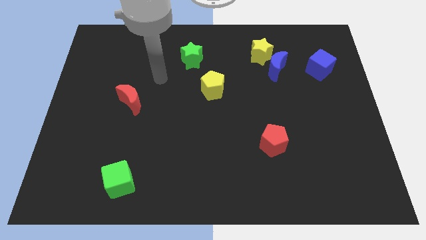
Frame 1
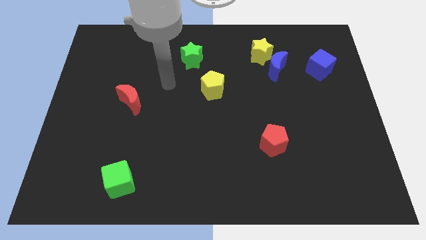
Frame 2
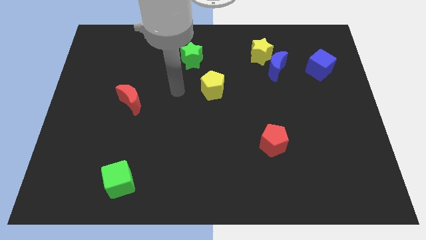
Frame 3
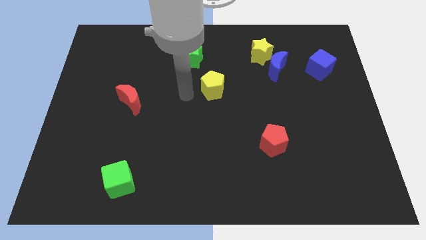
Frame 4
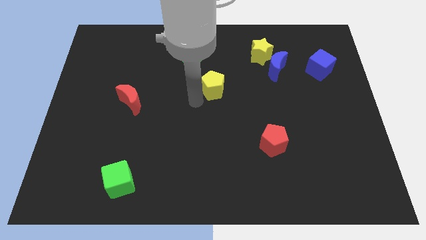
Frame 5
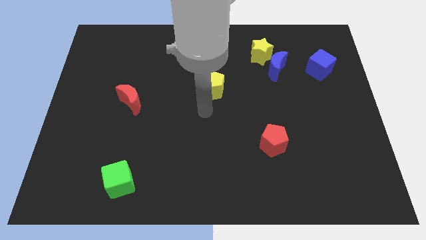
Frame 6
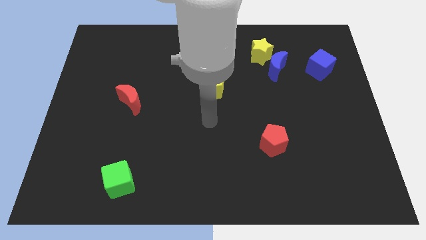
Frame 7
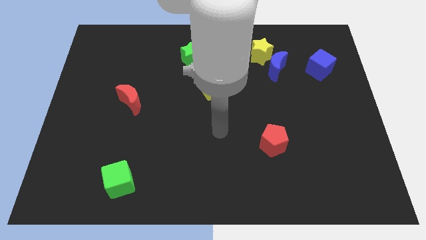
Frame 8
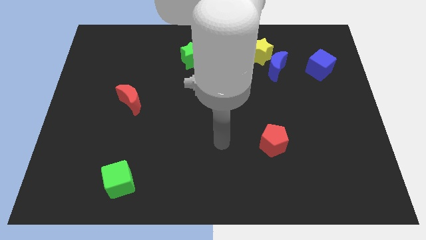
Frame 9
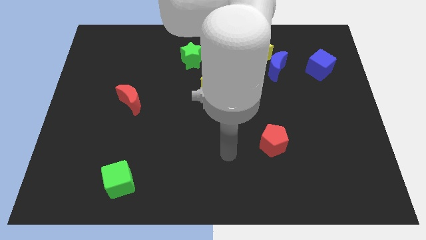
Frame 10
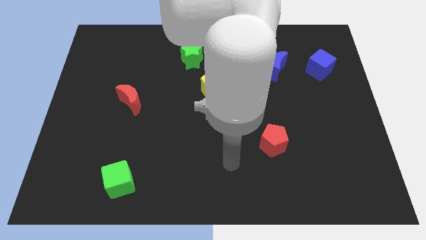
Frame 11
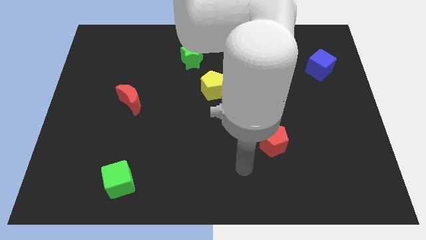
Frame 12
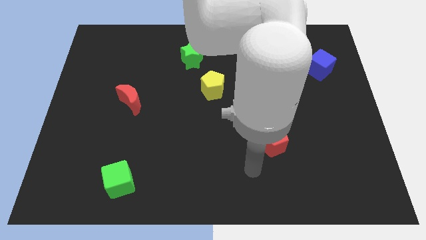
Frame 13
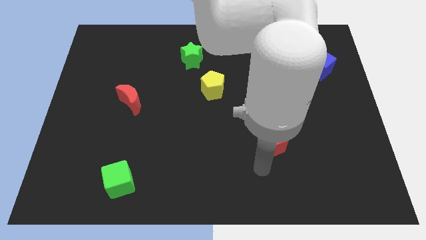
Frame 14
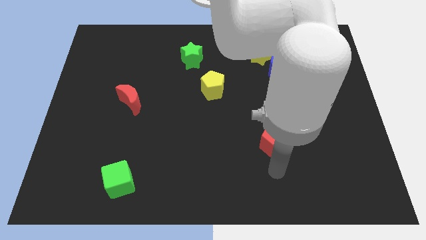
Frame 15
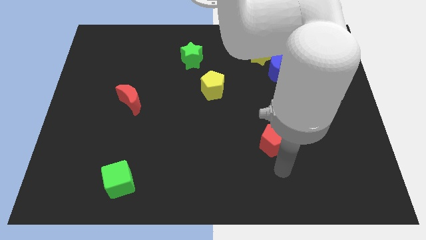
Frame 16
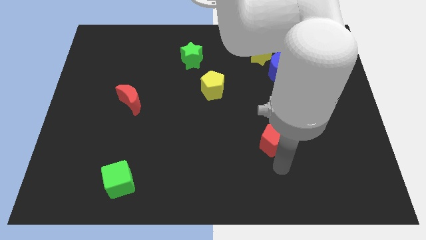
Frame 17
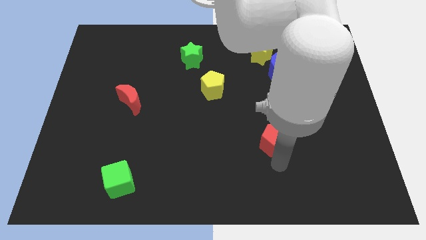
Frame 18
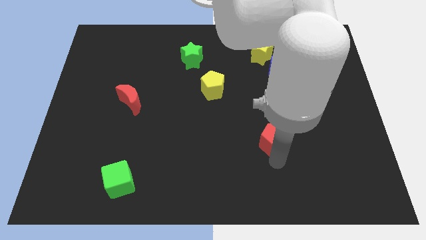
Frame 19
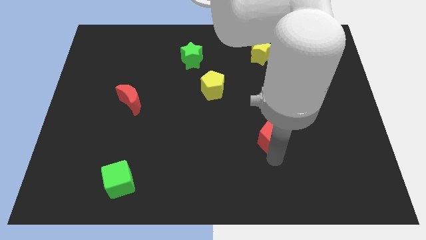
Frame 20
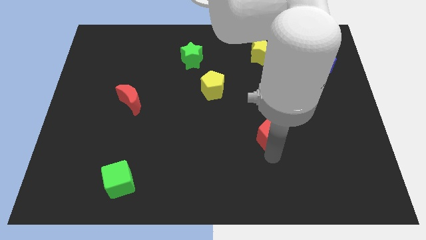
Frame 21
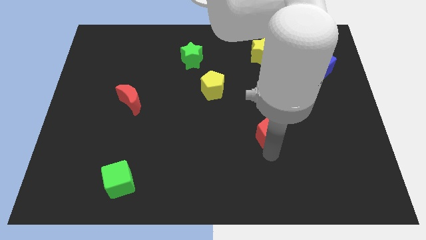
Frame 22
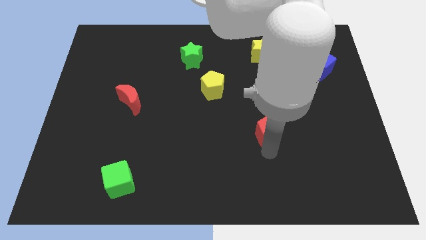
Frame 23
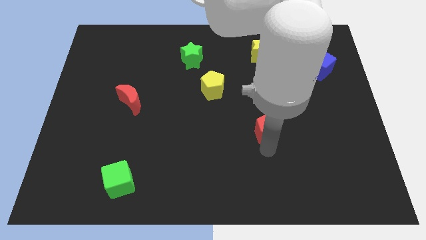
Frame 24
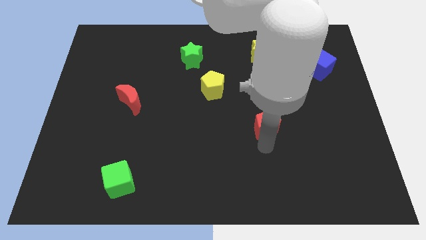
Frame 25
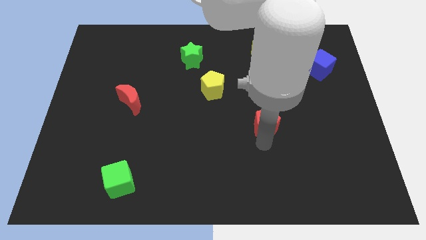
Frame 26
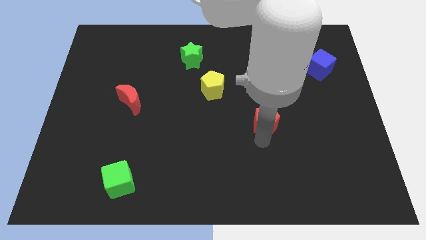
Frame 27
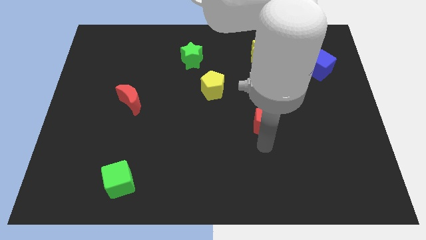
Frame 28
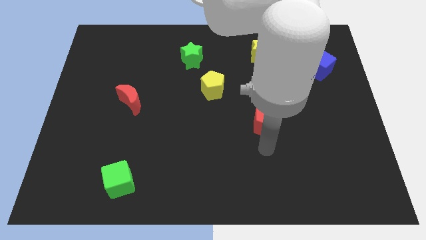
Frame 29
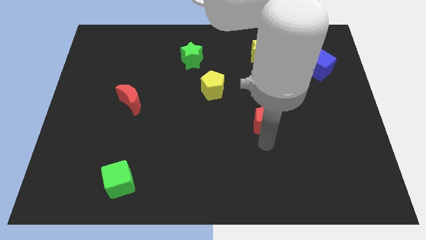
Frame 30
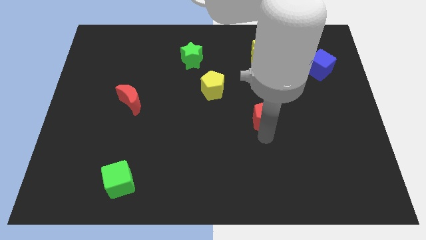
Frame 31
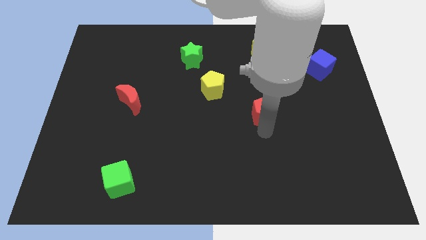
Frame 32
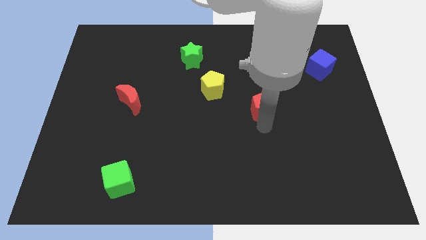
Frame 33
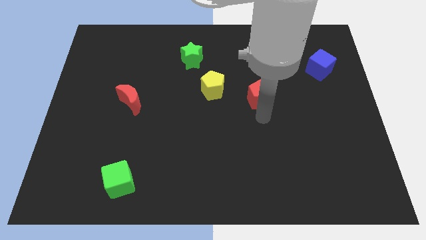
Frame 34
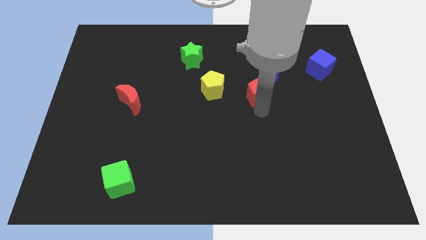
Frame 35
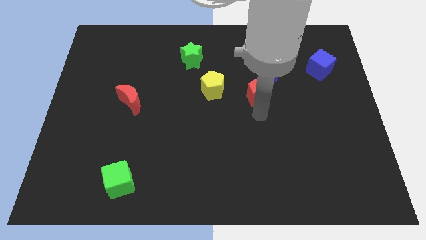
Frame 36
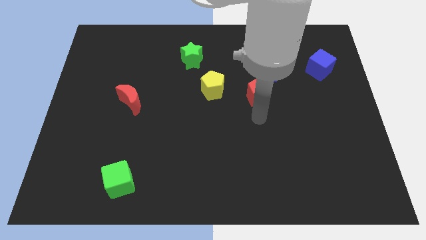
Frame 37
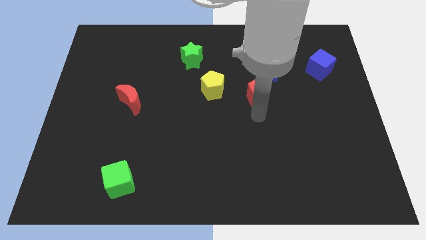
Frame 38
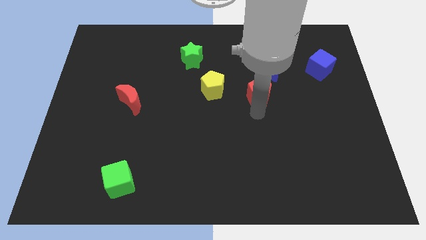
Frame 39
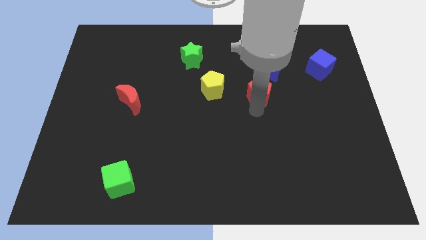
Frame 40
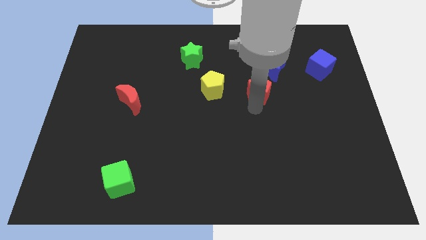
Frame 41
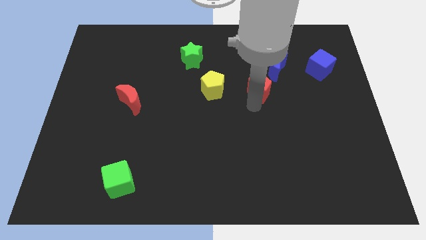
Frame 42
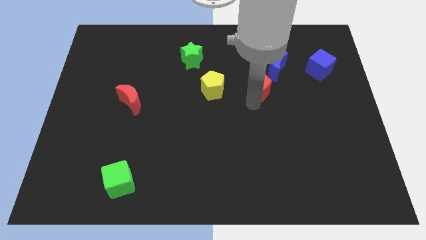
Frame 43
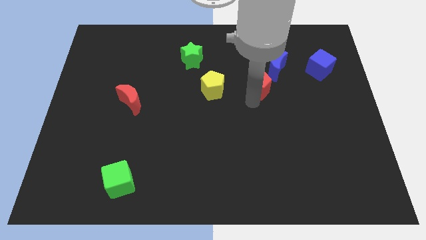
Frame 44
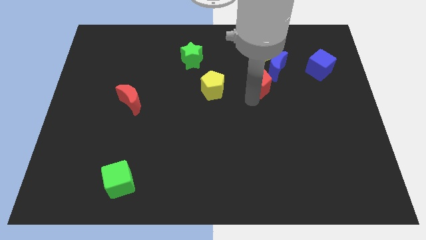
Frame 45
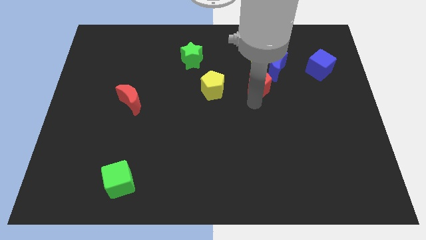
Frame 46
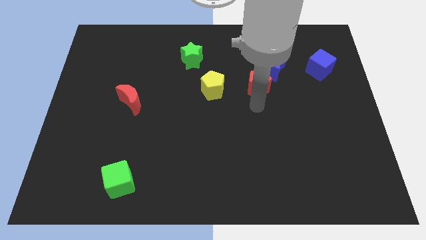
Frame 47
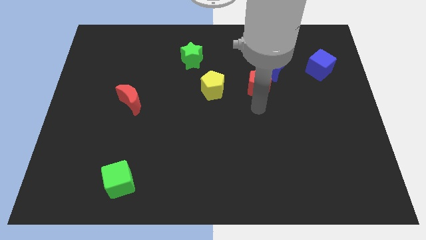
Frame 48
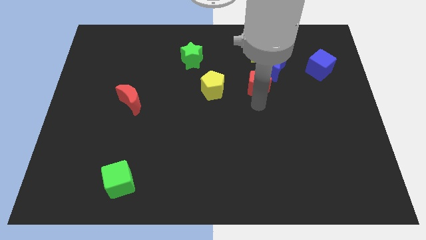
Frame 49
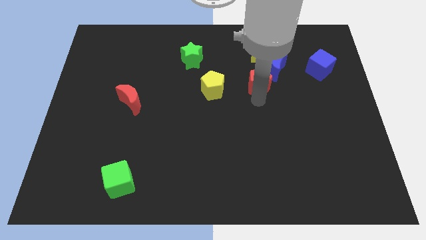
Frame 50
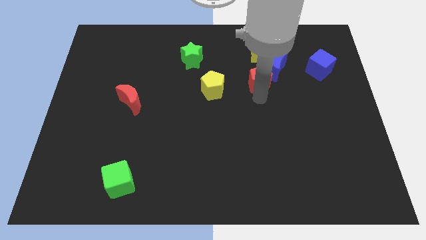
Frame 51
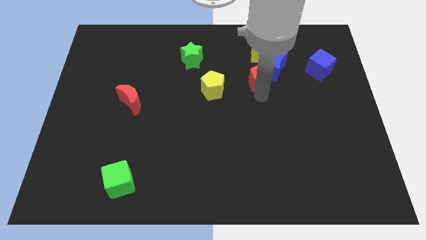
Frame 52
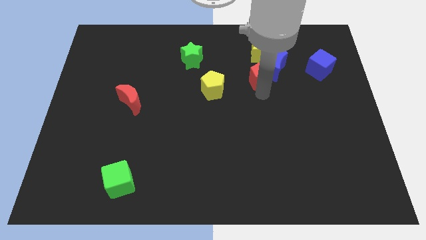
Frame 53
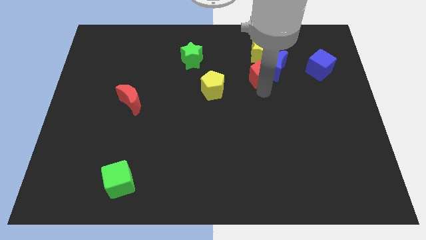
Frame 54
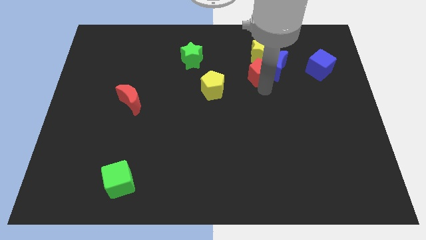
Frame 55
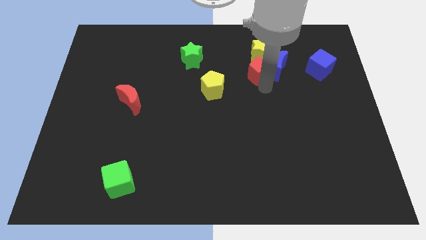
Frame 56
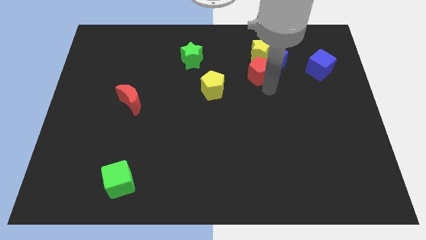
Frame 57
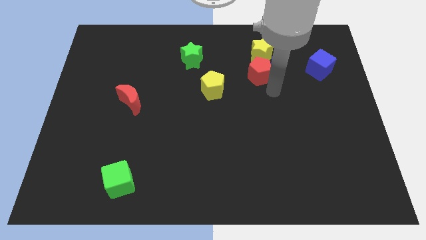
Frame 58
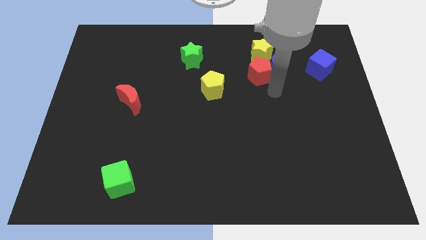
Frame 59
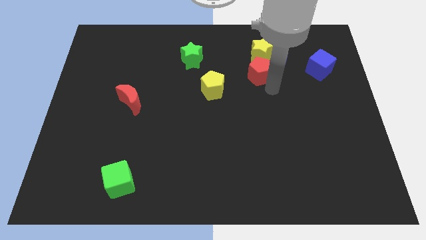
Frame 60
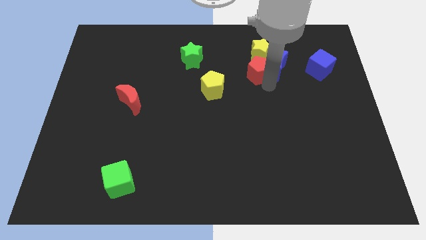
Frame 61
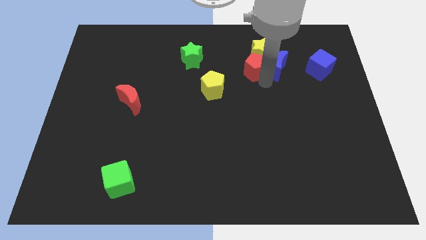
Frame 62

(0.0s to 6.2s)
move the red pentagon close to the yellow star

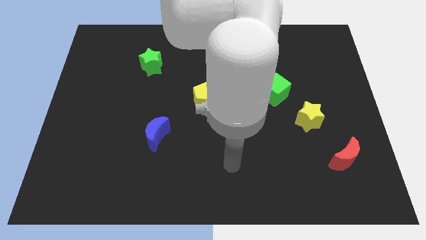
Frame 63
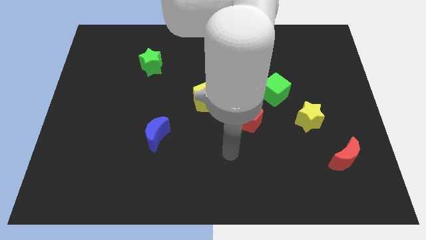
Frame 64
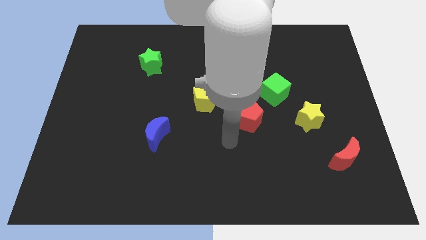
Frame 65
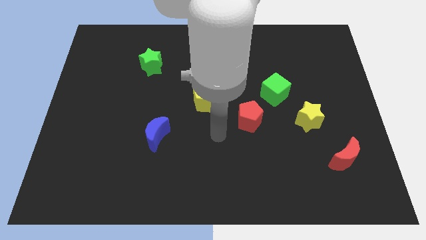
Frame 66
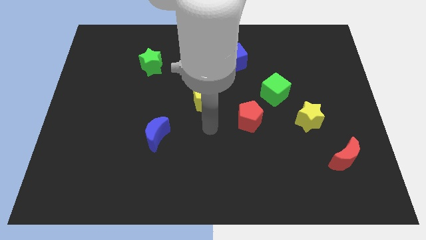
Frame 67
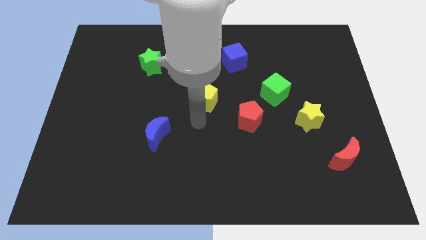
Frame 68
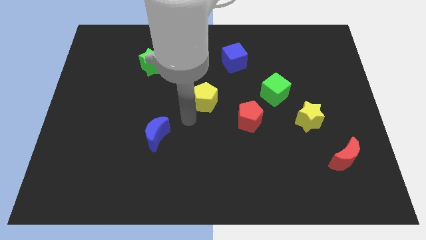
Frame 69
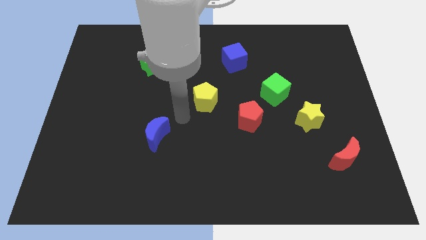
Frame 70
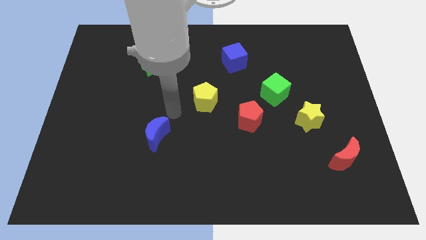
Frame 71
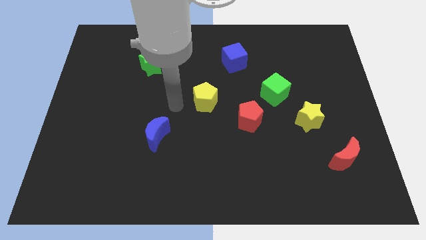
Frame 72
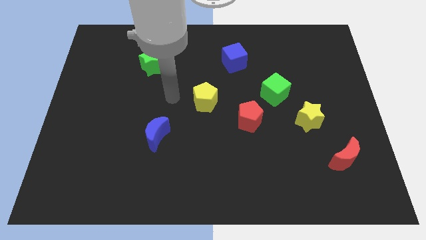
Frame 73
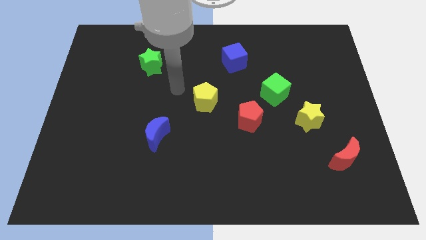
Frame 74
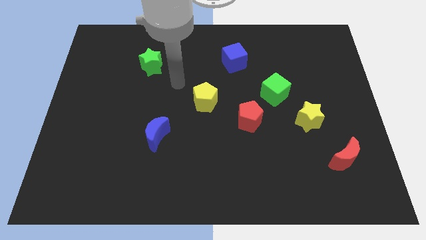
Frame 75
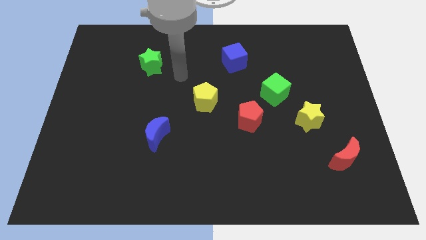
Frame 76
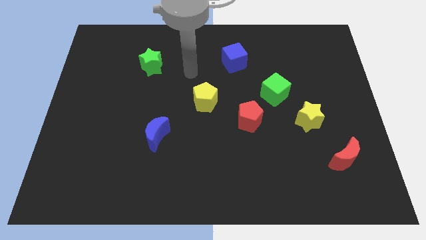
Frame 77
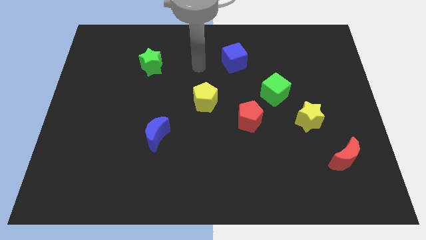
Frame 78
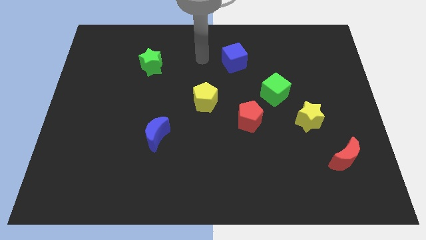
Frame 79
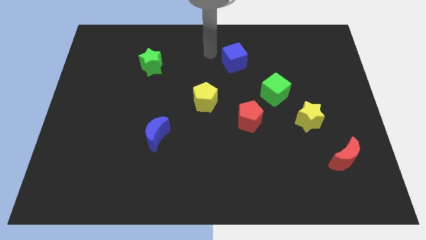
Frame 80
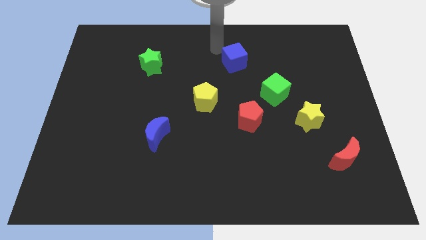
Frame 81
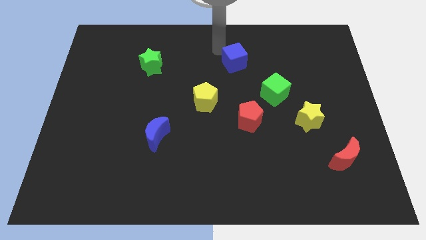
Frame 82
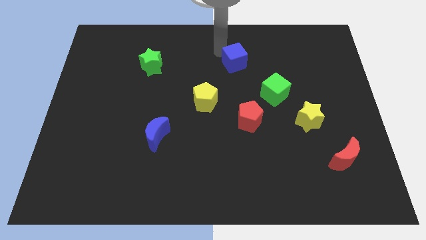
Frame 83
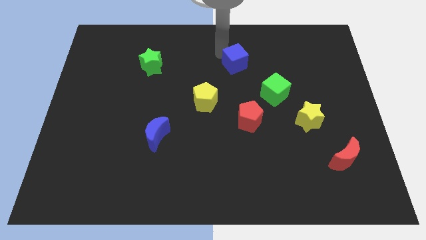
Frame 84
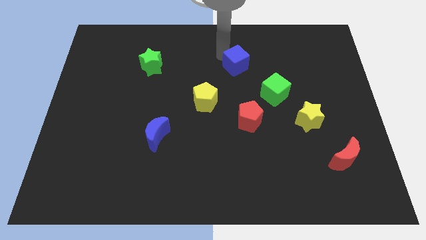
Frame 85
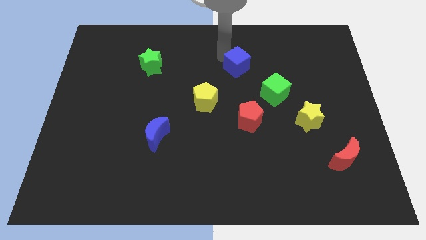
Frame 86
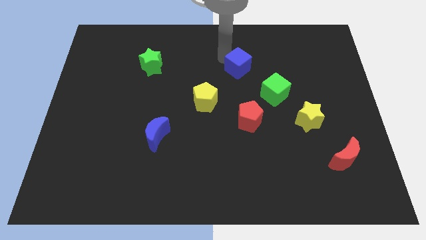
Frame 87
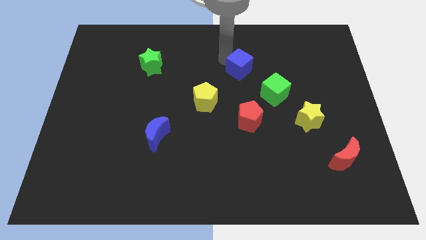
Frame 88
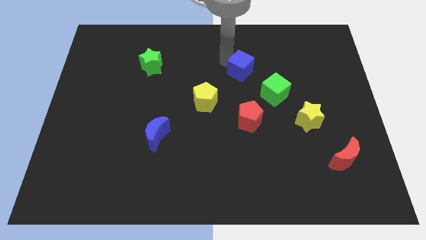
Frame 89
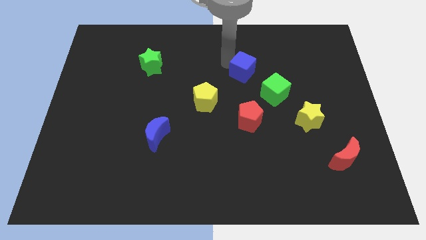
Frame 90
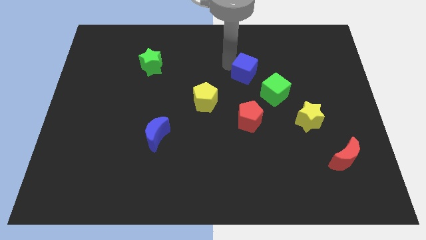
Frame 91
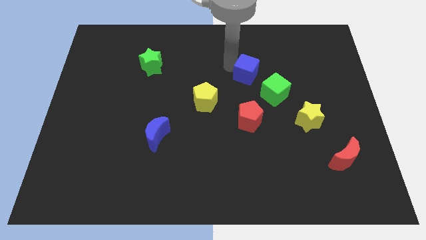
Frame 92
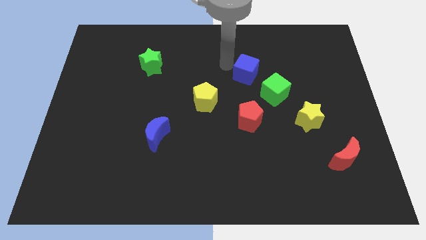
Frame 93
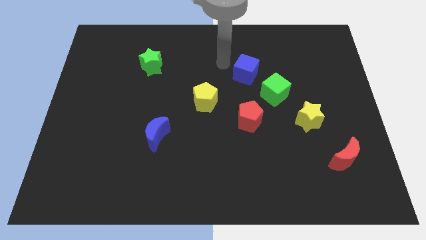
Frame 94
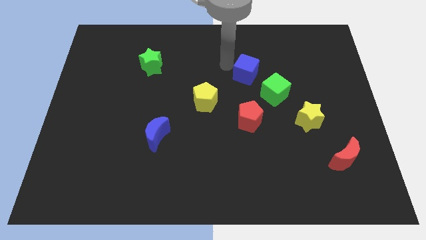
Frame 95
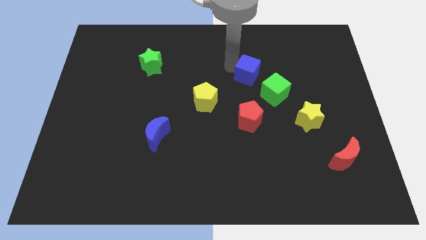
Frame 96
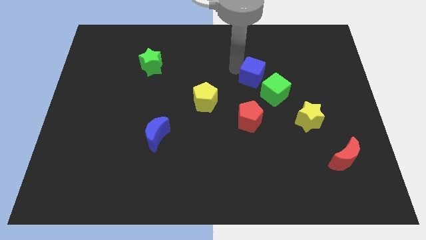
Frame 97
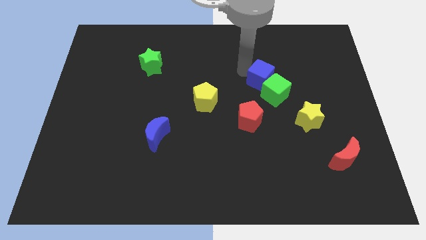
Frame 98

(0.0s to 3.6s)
push the blue cube to the green cube
